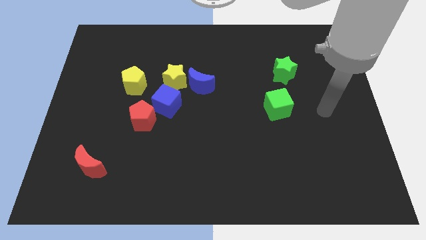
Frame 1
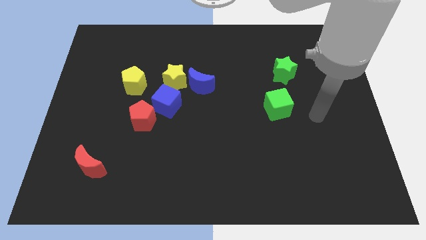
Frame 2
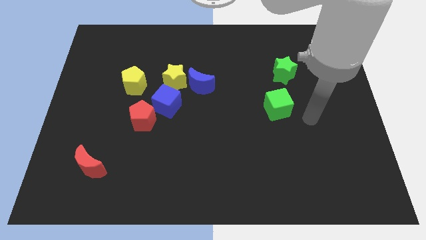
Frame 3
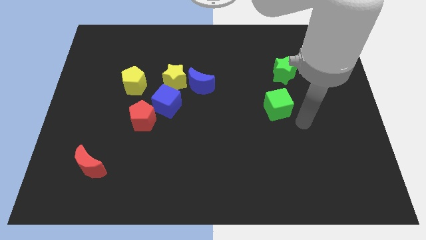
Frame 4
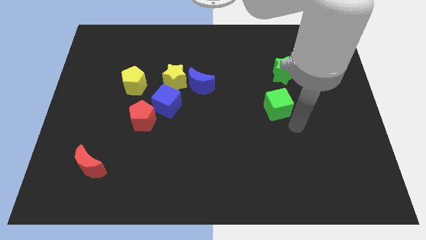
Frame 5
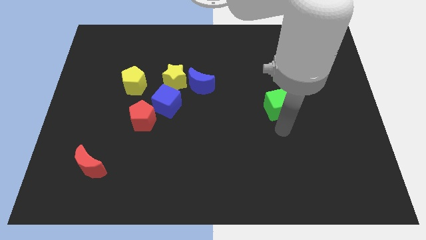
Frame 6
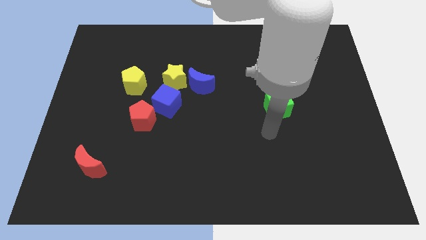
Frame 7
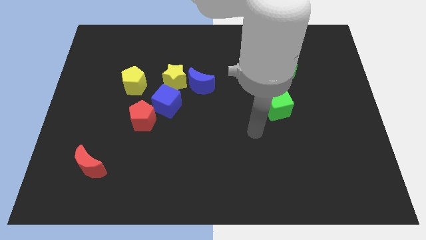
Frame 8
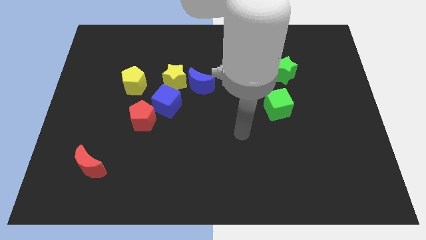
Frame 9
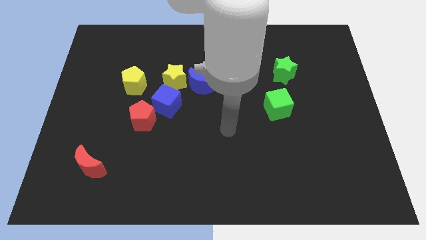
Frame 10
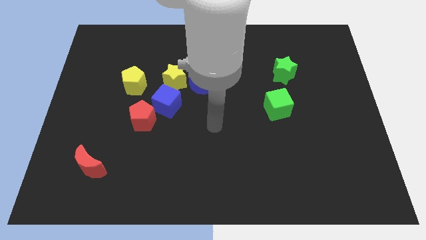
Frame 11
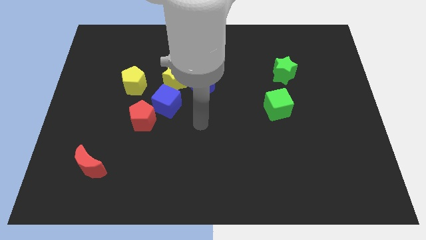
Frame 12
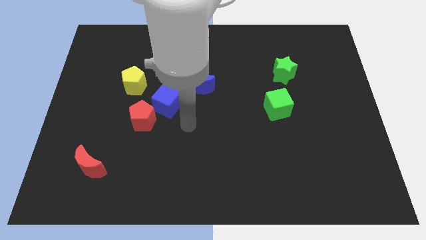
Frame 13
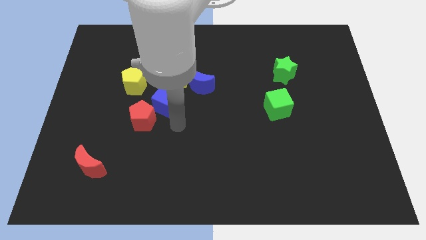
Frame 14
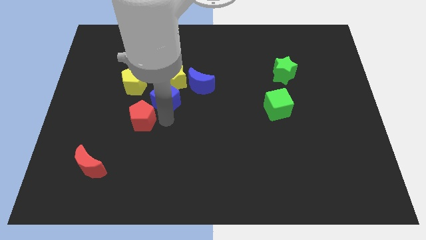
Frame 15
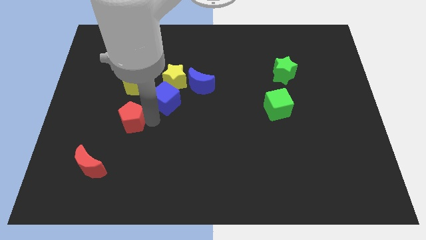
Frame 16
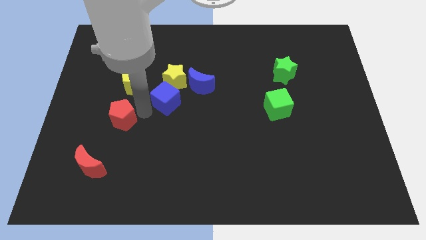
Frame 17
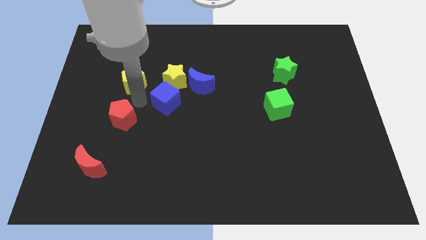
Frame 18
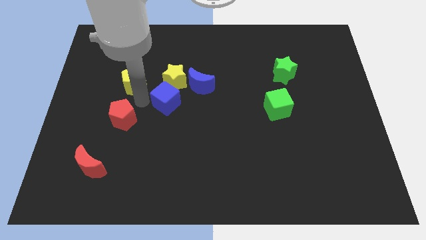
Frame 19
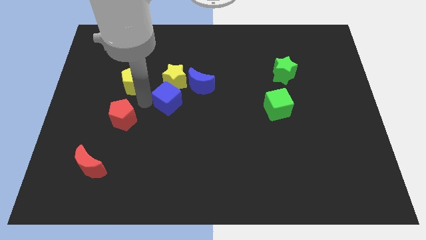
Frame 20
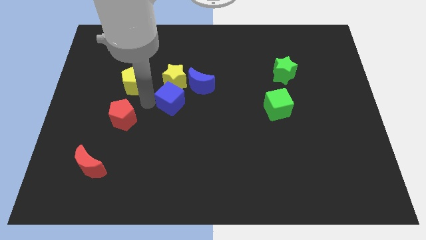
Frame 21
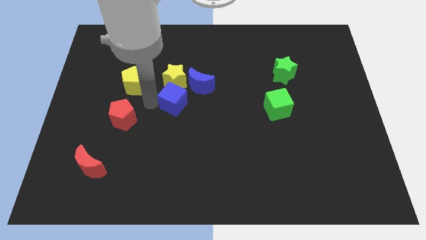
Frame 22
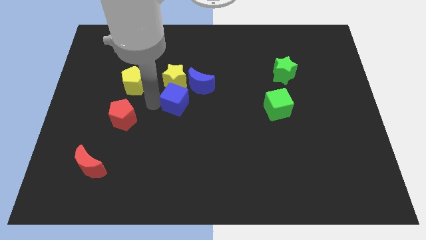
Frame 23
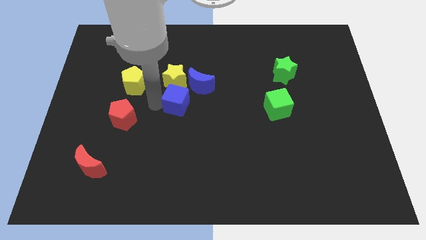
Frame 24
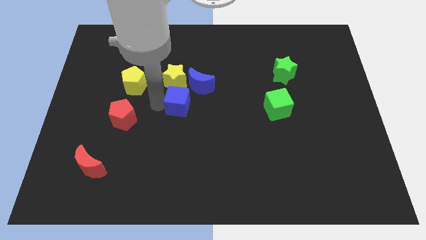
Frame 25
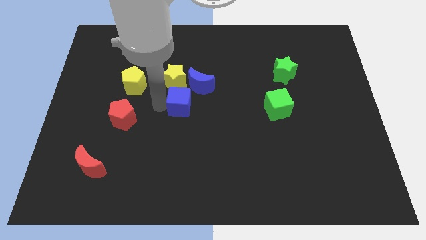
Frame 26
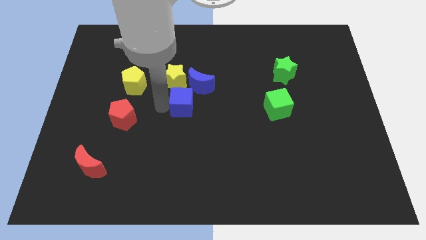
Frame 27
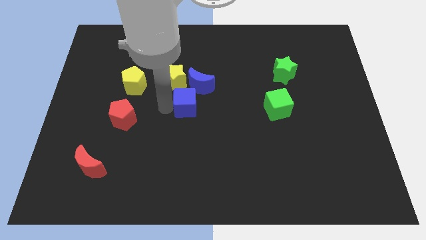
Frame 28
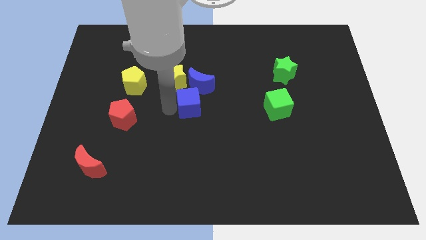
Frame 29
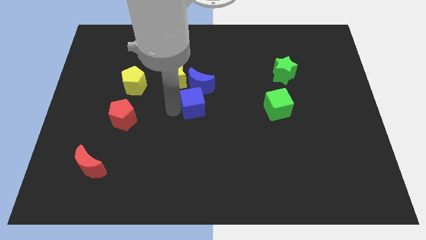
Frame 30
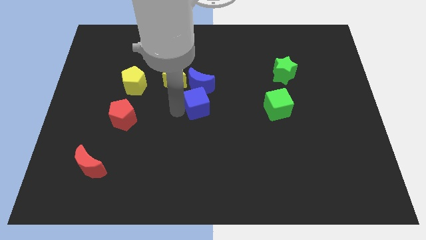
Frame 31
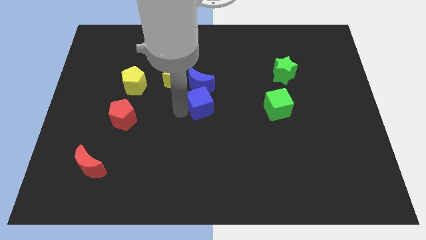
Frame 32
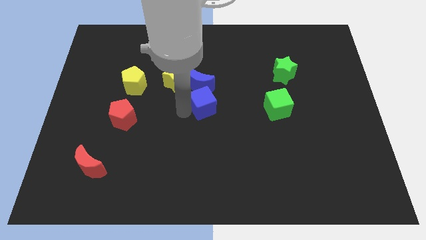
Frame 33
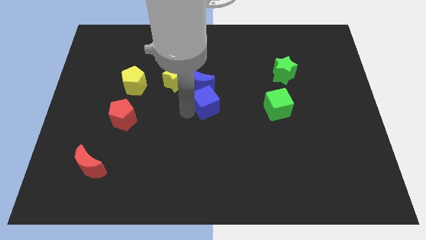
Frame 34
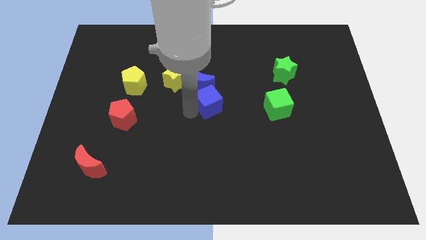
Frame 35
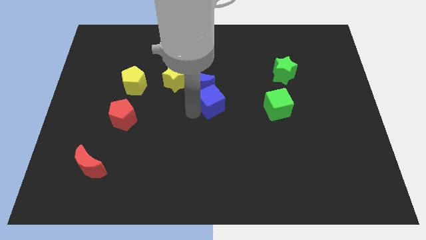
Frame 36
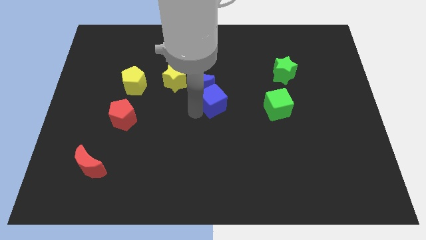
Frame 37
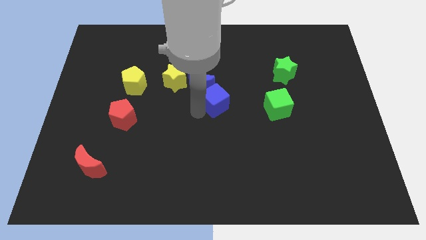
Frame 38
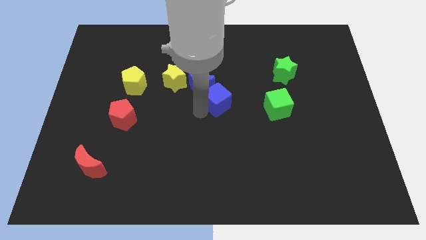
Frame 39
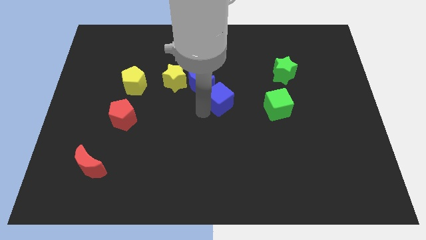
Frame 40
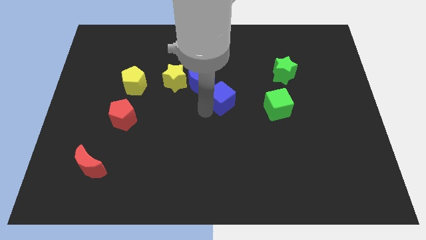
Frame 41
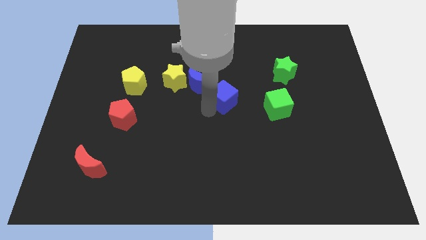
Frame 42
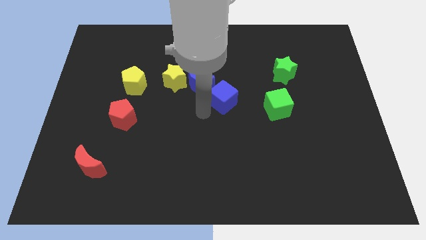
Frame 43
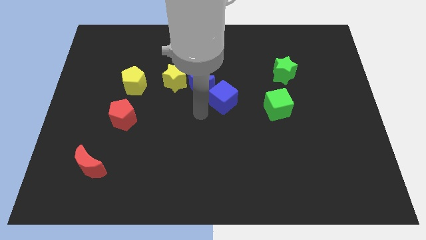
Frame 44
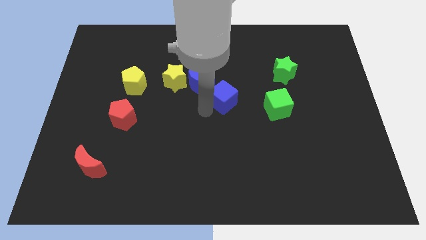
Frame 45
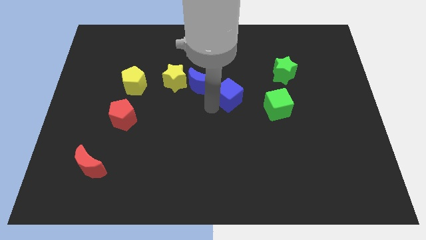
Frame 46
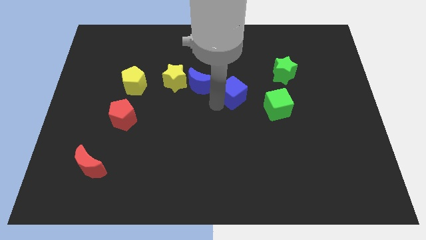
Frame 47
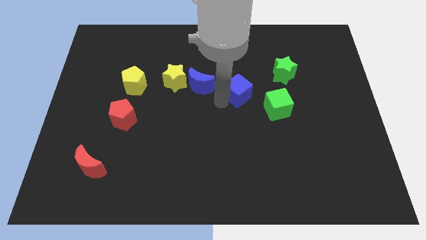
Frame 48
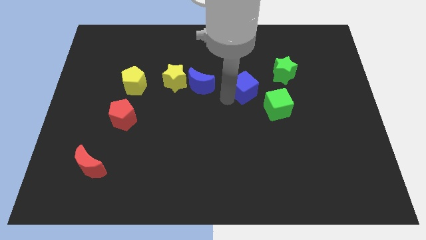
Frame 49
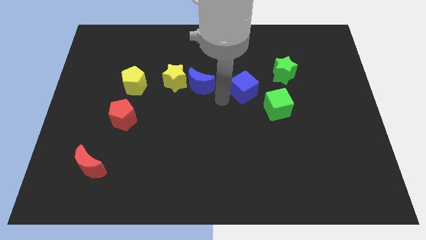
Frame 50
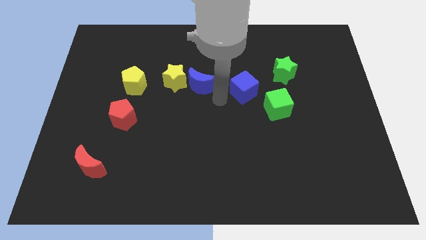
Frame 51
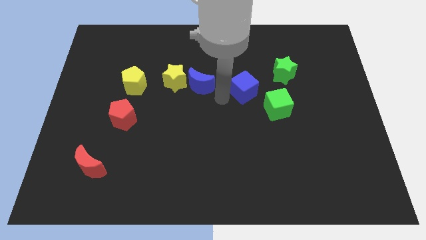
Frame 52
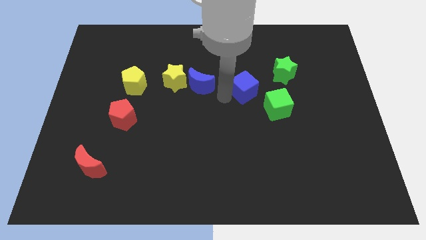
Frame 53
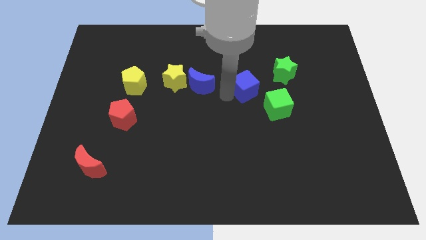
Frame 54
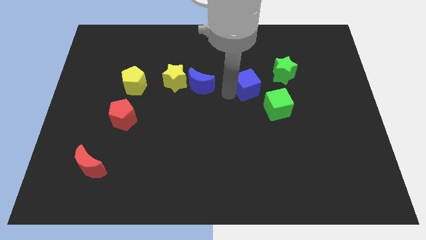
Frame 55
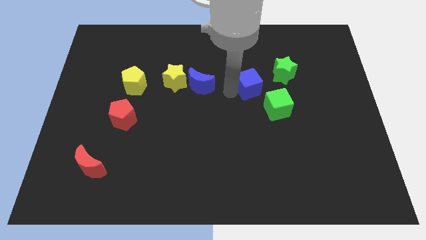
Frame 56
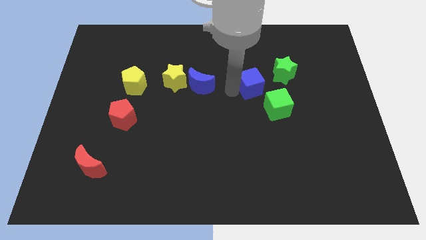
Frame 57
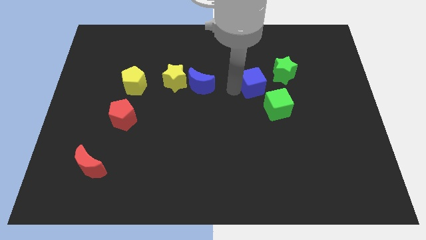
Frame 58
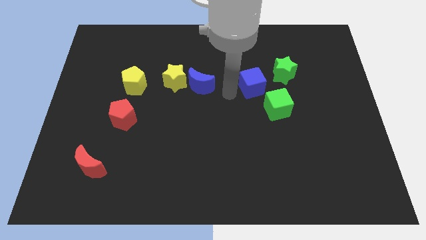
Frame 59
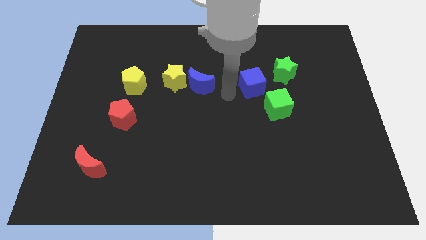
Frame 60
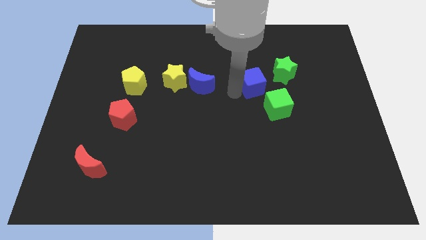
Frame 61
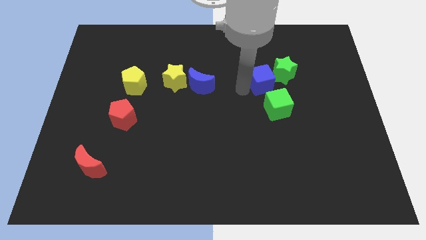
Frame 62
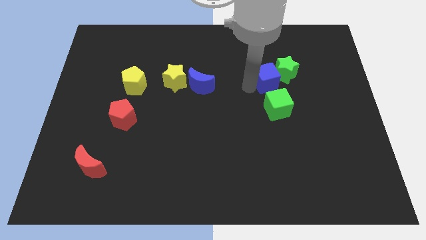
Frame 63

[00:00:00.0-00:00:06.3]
push the blue cube close to the green star

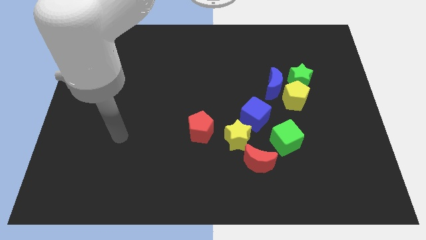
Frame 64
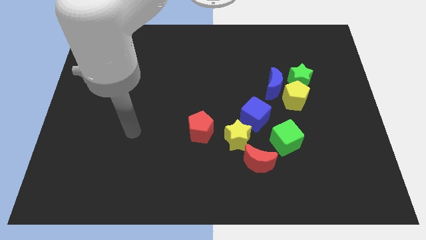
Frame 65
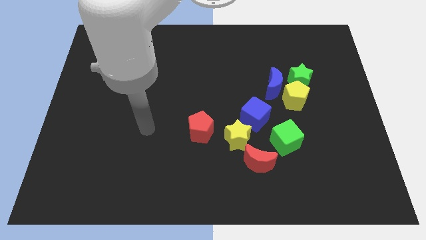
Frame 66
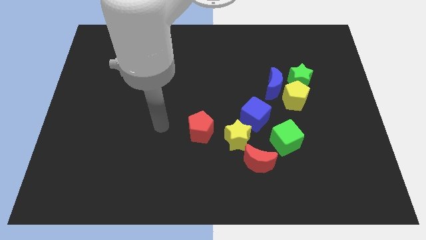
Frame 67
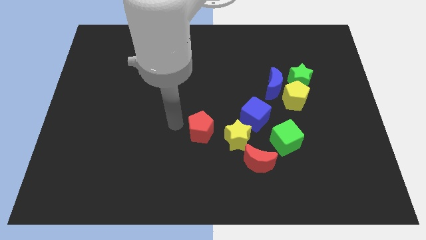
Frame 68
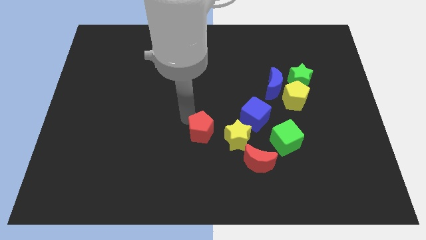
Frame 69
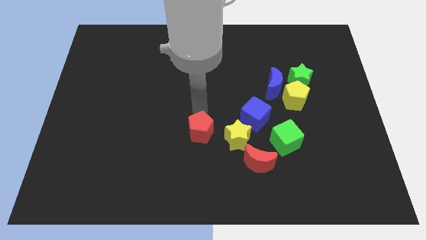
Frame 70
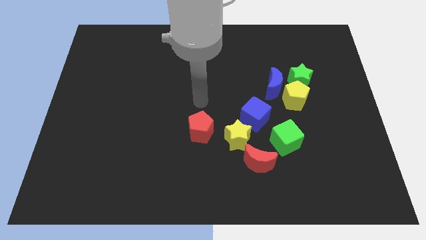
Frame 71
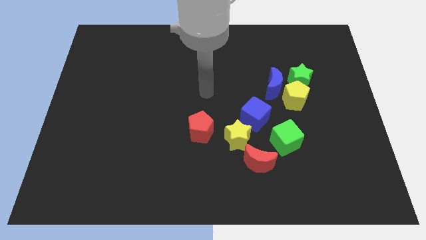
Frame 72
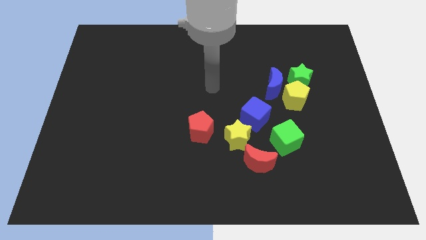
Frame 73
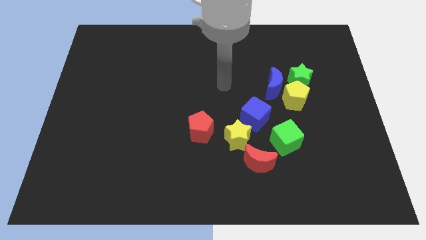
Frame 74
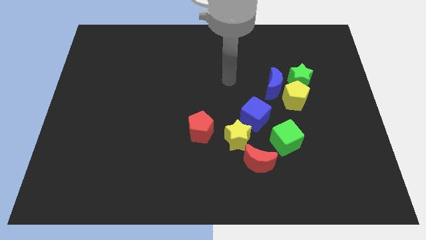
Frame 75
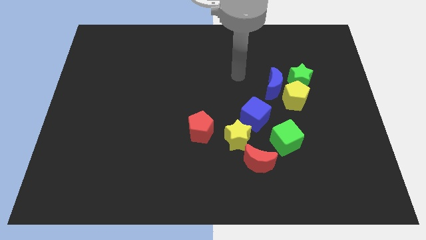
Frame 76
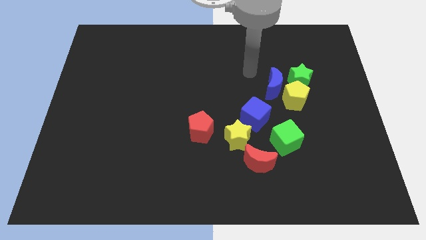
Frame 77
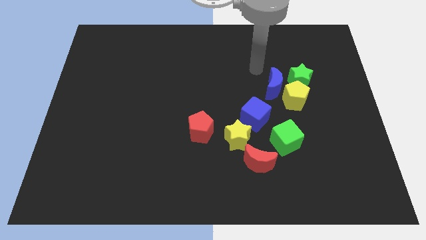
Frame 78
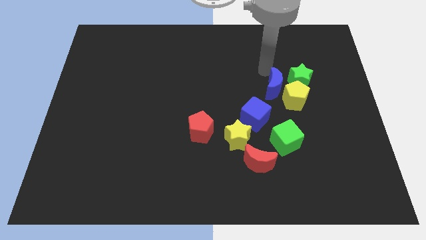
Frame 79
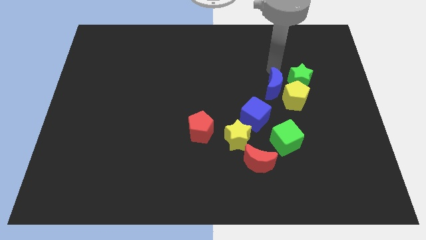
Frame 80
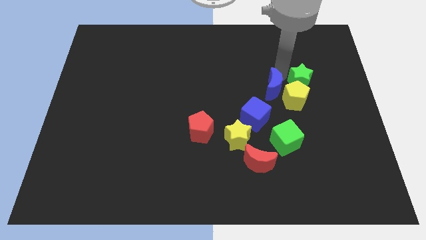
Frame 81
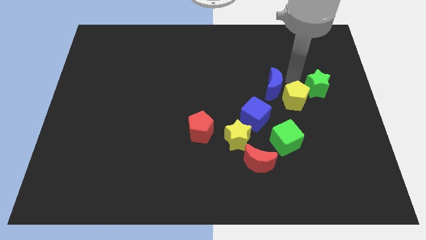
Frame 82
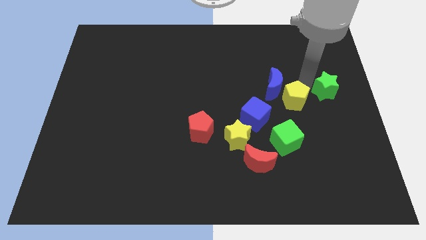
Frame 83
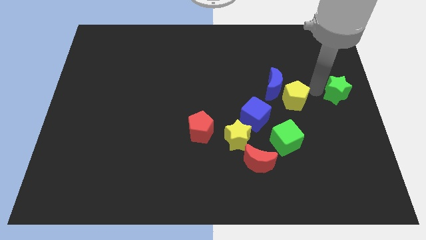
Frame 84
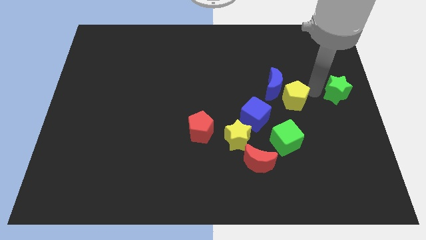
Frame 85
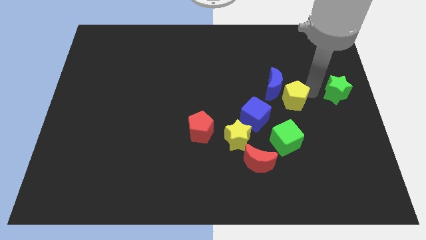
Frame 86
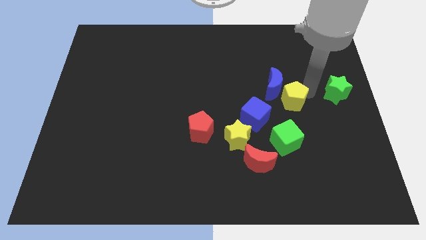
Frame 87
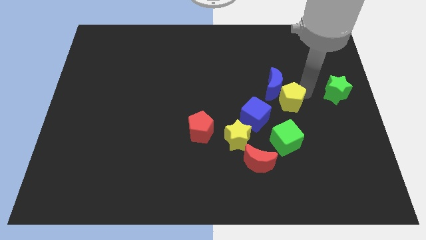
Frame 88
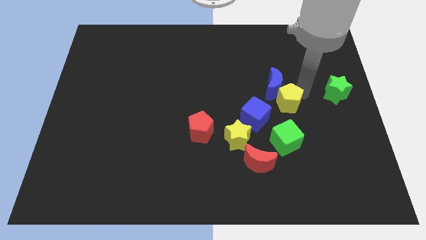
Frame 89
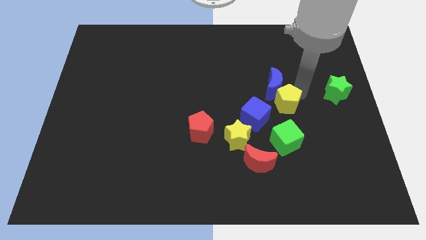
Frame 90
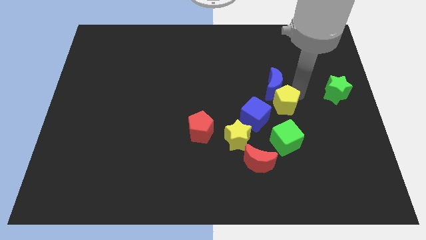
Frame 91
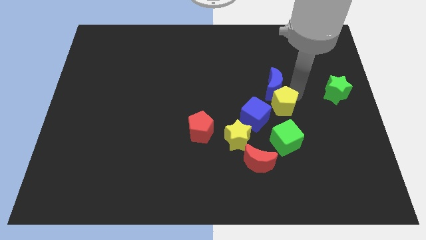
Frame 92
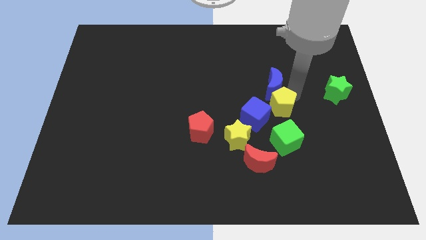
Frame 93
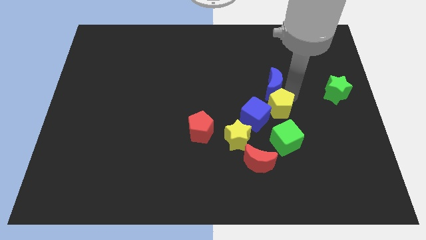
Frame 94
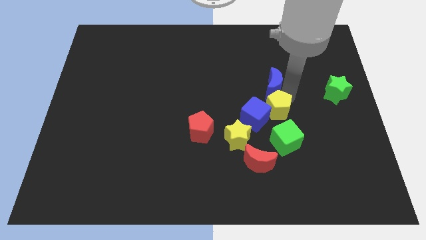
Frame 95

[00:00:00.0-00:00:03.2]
push the yellow pentagon to the blue cube
